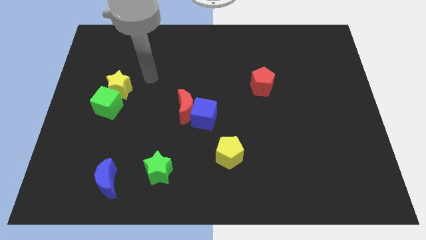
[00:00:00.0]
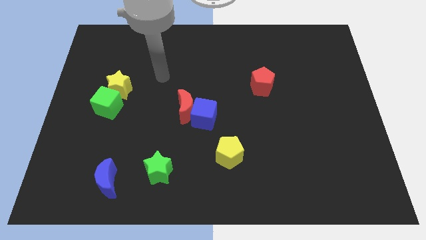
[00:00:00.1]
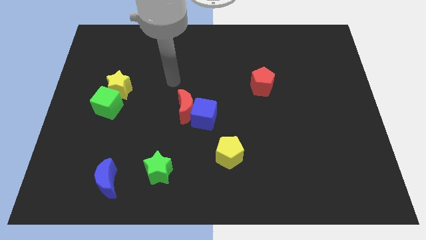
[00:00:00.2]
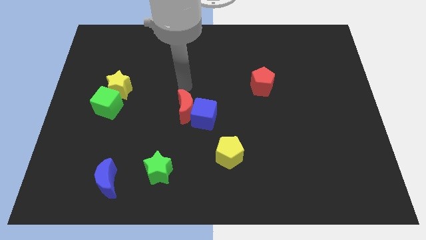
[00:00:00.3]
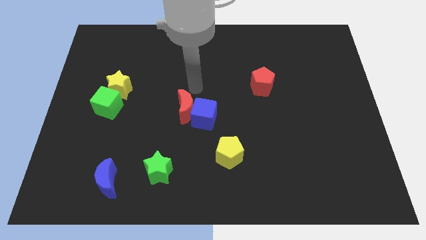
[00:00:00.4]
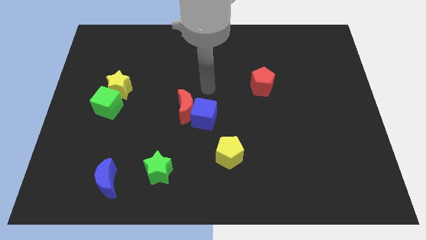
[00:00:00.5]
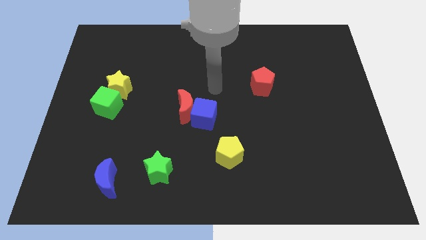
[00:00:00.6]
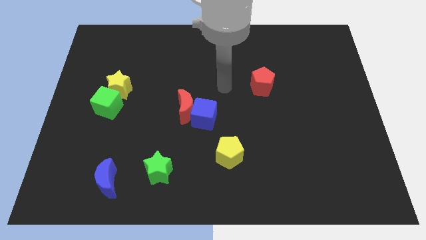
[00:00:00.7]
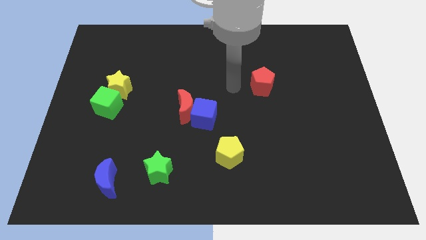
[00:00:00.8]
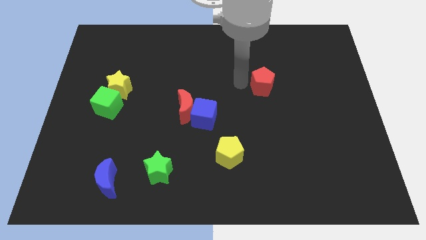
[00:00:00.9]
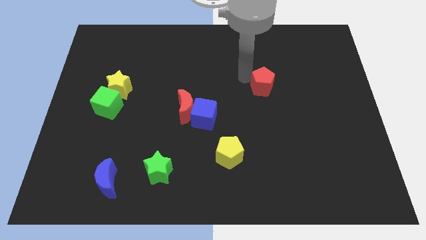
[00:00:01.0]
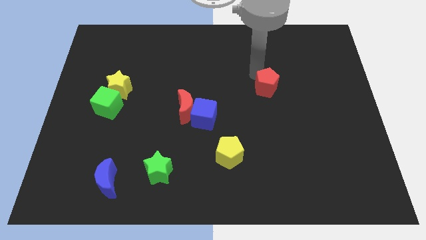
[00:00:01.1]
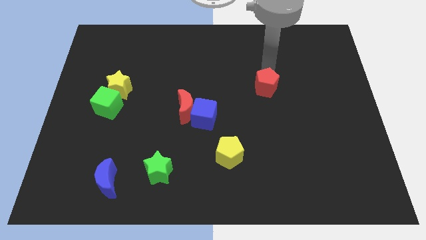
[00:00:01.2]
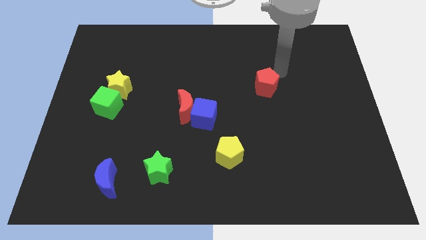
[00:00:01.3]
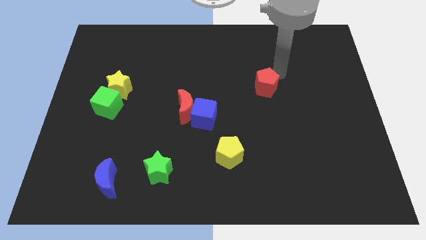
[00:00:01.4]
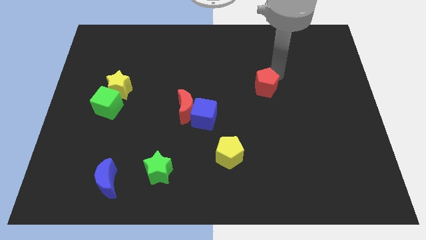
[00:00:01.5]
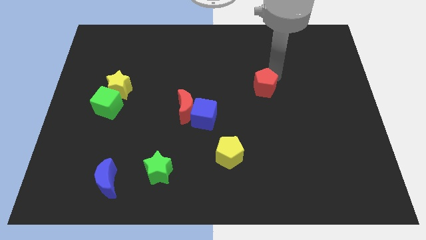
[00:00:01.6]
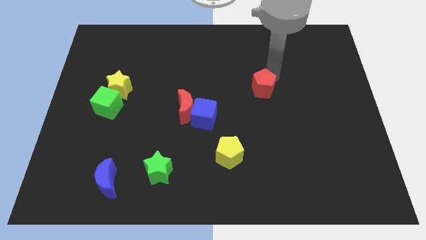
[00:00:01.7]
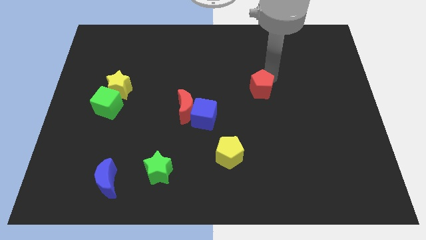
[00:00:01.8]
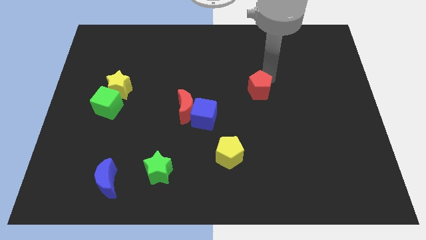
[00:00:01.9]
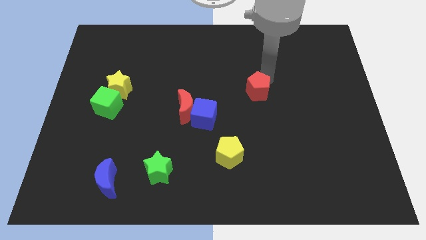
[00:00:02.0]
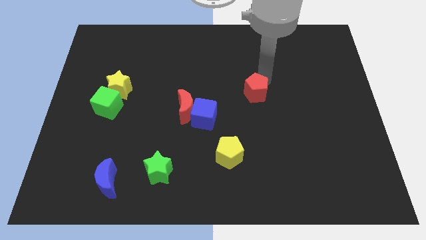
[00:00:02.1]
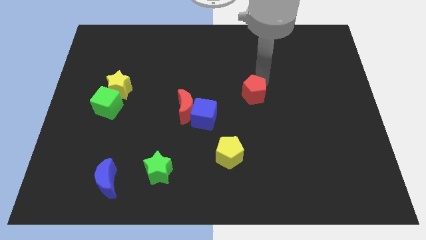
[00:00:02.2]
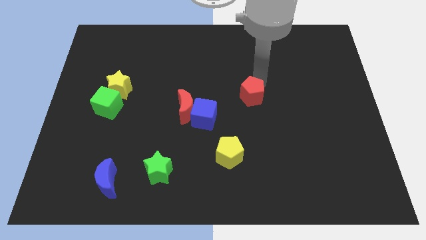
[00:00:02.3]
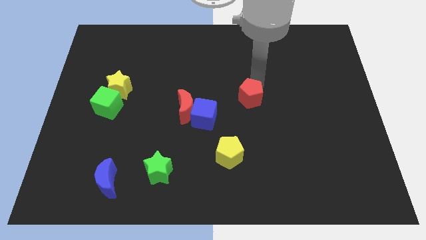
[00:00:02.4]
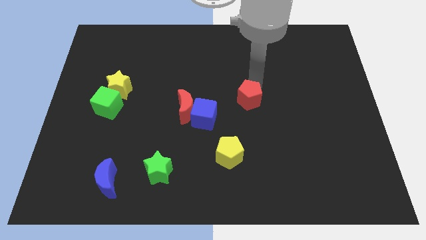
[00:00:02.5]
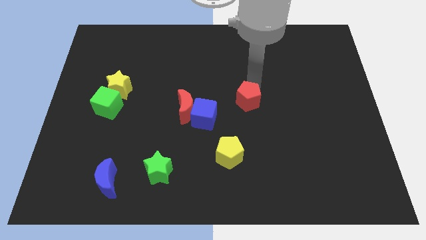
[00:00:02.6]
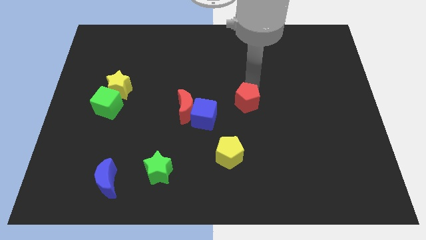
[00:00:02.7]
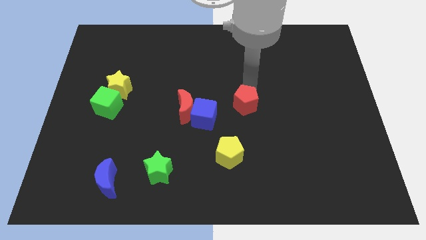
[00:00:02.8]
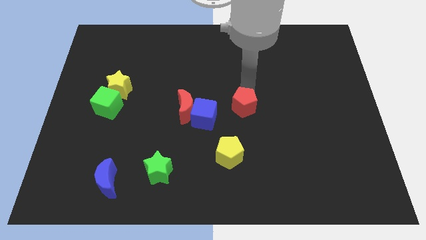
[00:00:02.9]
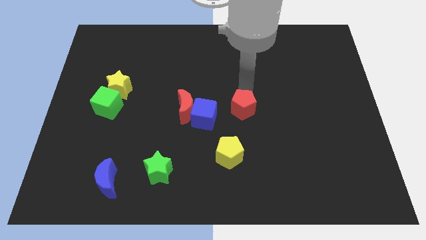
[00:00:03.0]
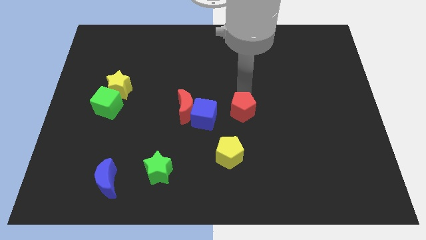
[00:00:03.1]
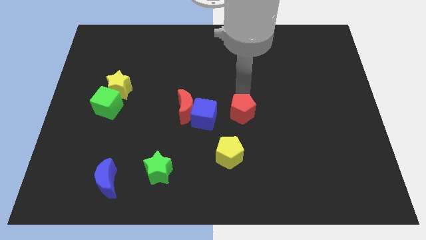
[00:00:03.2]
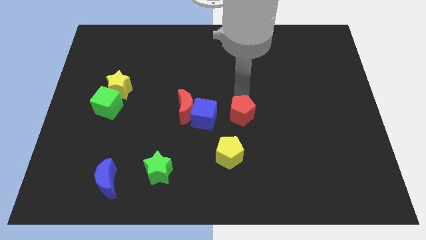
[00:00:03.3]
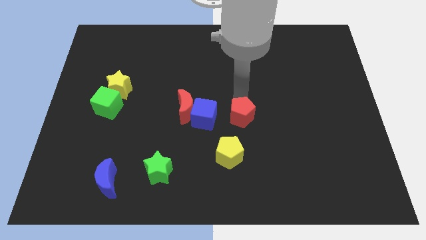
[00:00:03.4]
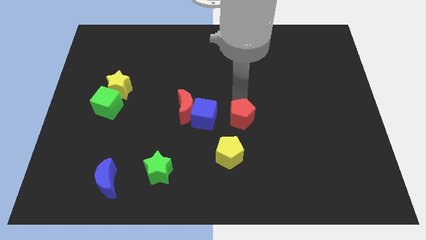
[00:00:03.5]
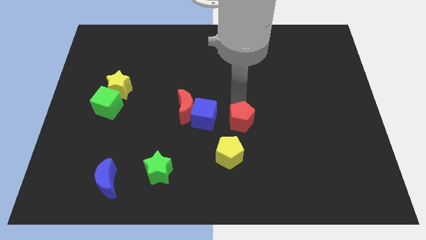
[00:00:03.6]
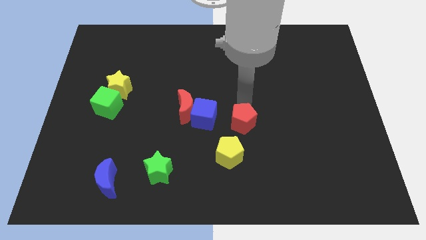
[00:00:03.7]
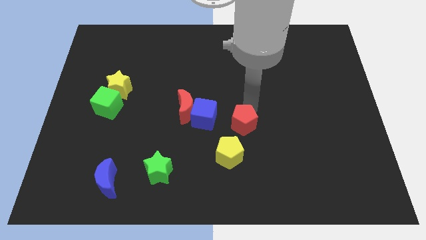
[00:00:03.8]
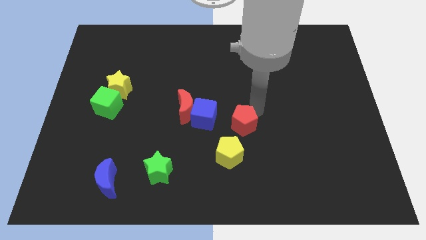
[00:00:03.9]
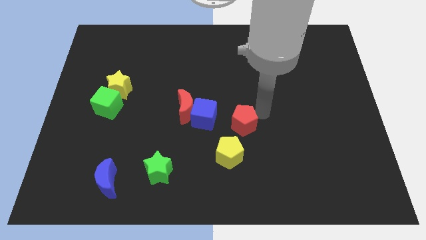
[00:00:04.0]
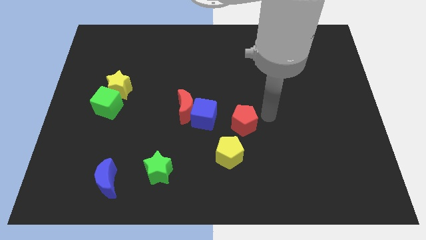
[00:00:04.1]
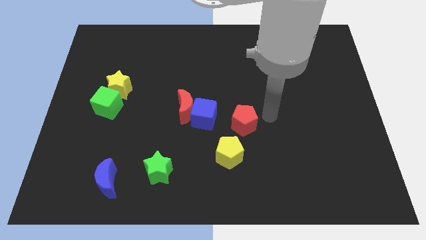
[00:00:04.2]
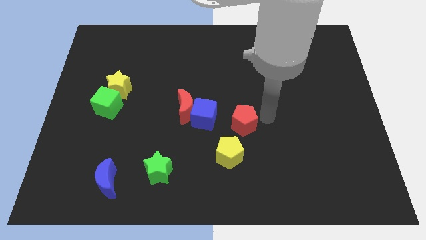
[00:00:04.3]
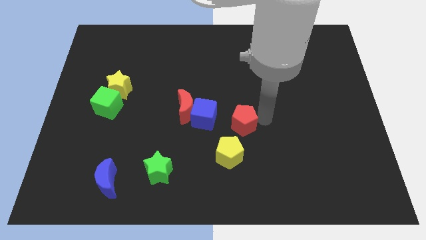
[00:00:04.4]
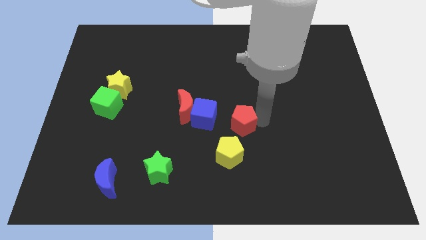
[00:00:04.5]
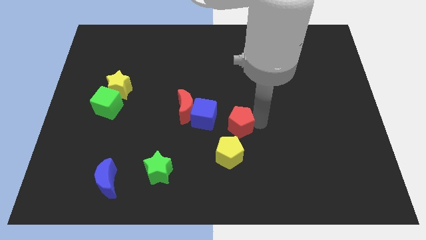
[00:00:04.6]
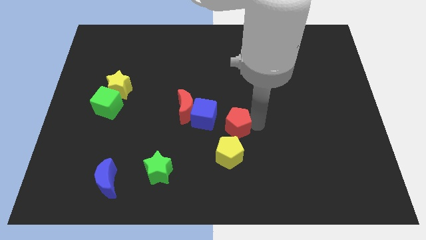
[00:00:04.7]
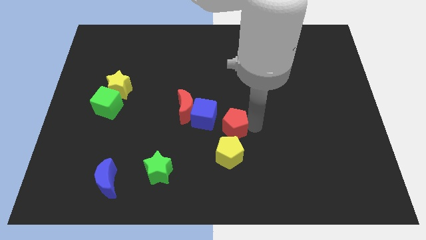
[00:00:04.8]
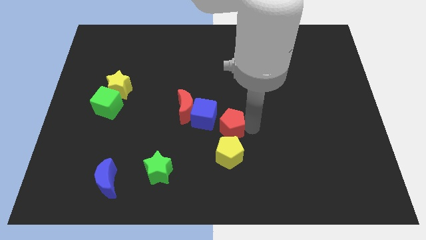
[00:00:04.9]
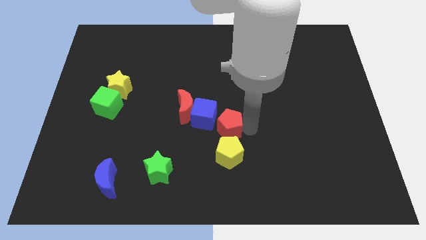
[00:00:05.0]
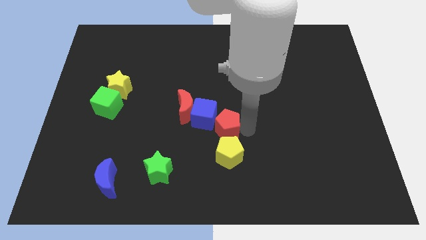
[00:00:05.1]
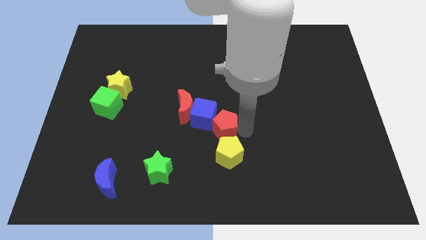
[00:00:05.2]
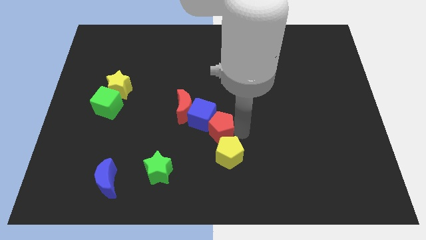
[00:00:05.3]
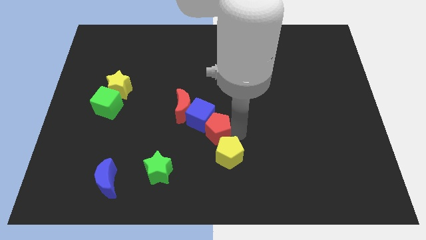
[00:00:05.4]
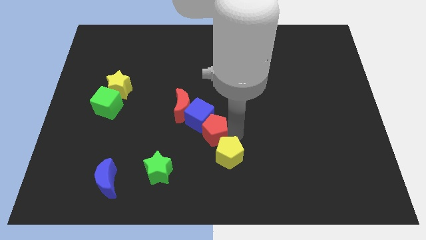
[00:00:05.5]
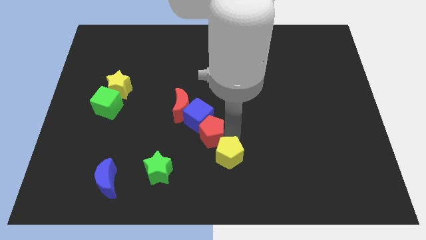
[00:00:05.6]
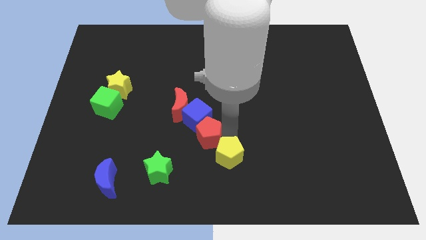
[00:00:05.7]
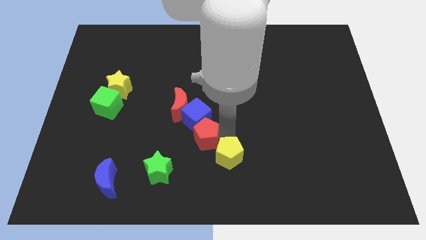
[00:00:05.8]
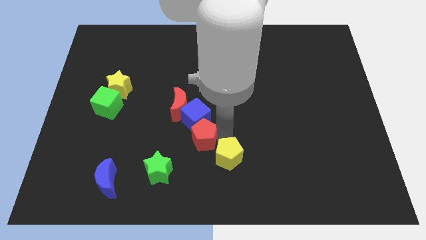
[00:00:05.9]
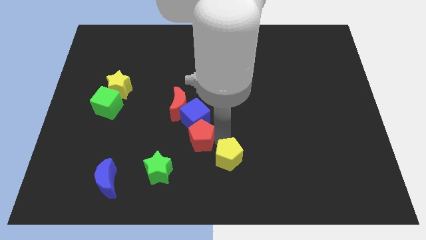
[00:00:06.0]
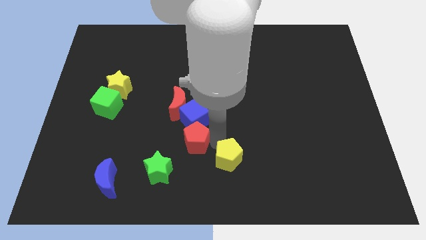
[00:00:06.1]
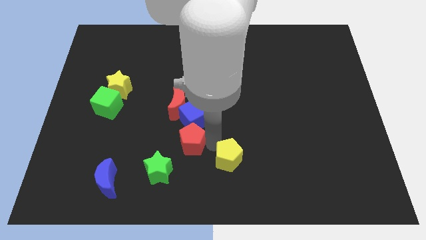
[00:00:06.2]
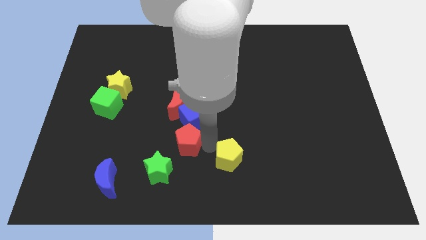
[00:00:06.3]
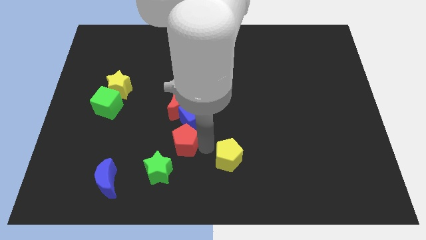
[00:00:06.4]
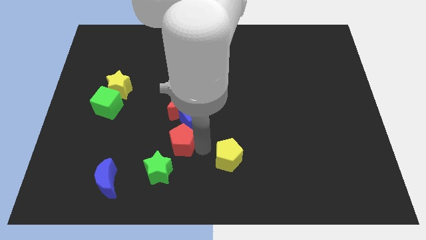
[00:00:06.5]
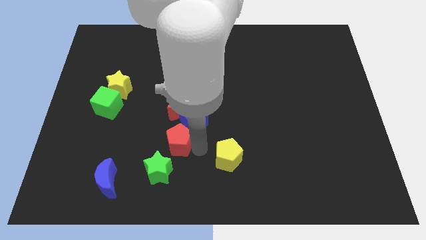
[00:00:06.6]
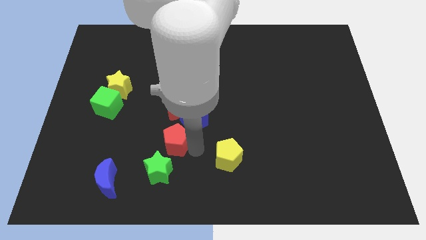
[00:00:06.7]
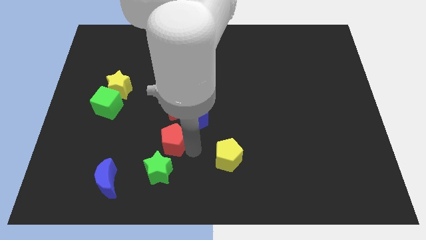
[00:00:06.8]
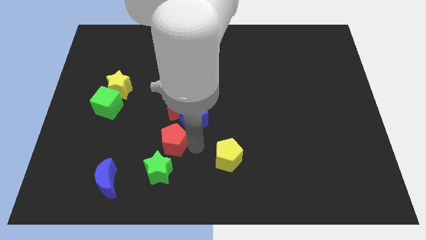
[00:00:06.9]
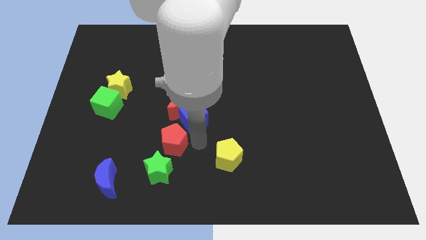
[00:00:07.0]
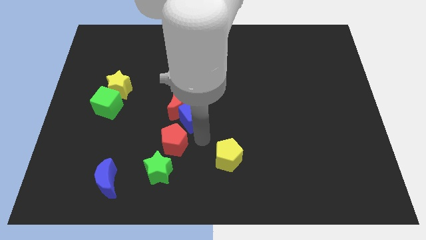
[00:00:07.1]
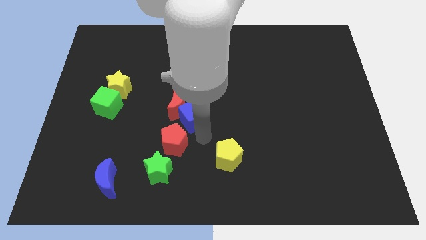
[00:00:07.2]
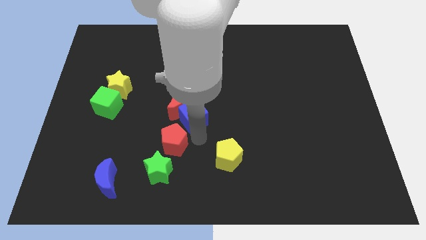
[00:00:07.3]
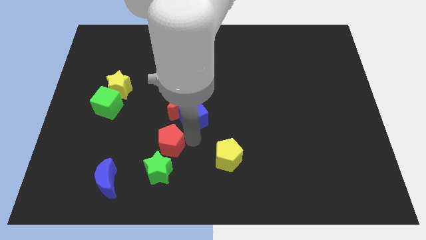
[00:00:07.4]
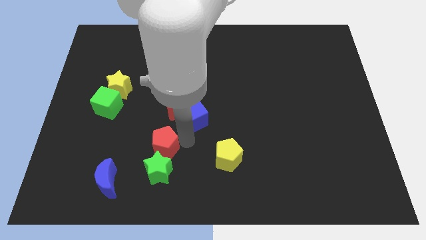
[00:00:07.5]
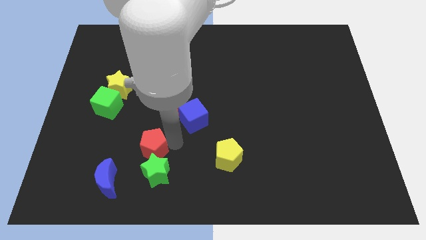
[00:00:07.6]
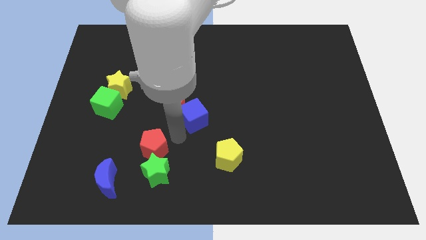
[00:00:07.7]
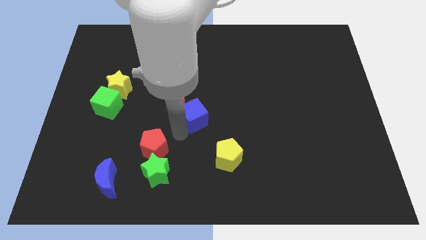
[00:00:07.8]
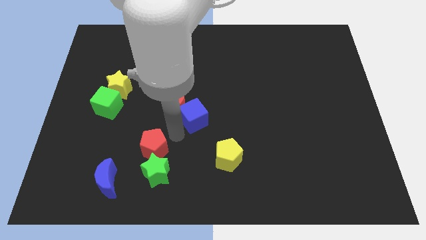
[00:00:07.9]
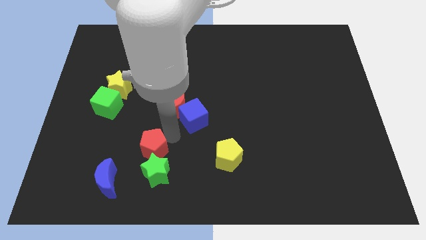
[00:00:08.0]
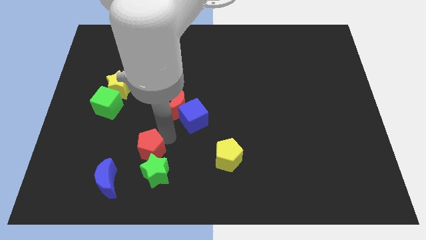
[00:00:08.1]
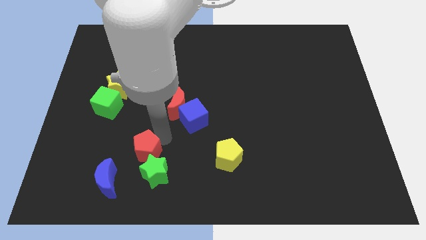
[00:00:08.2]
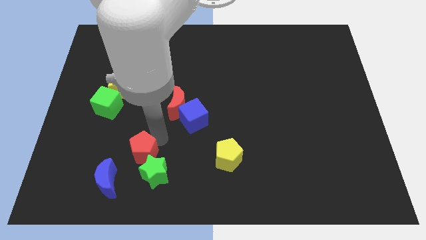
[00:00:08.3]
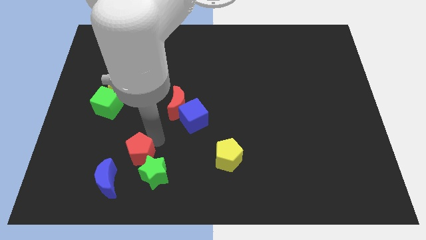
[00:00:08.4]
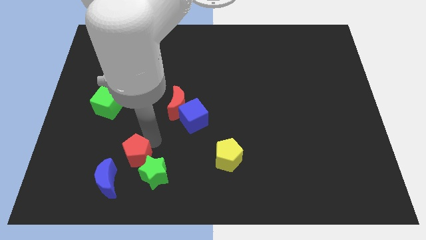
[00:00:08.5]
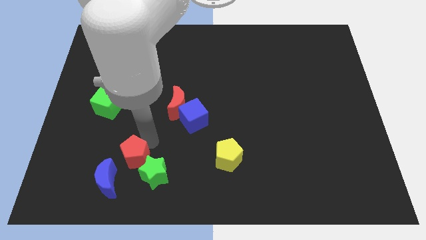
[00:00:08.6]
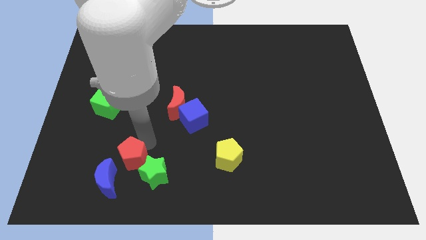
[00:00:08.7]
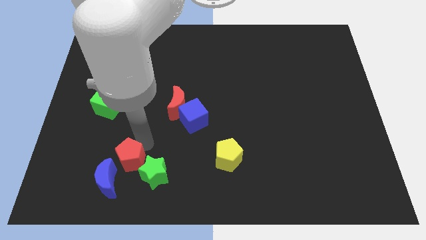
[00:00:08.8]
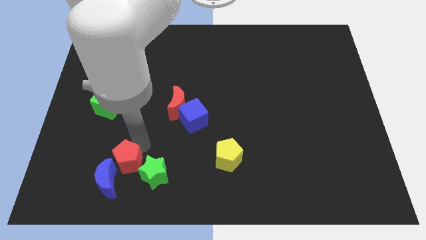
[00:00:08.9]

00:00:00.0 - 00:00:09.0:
put the red pentagon next to the blue moon
